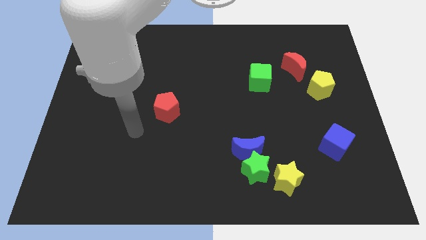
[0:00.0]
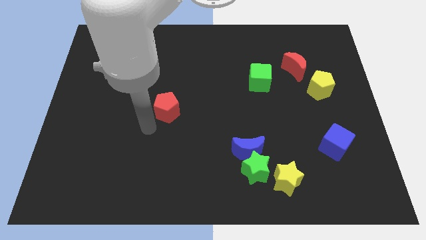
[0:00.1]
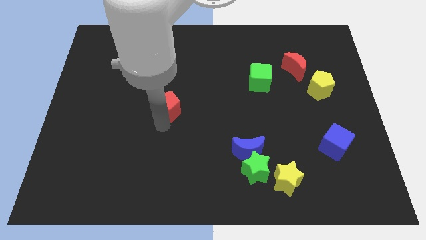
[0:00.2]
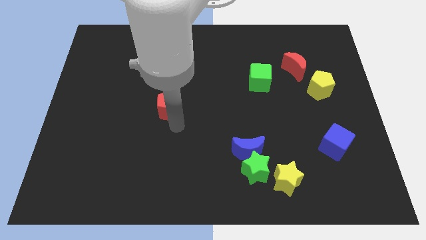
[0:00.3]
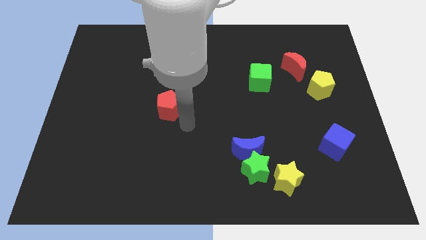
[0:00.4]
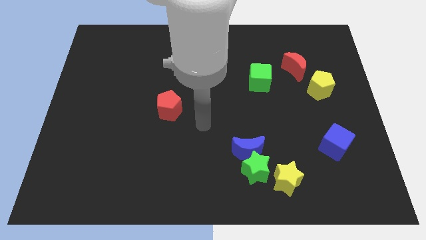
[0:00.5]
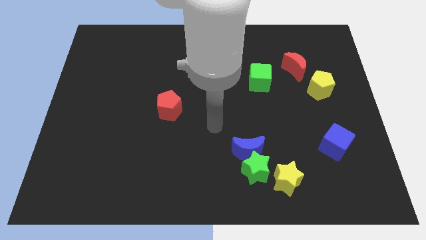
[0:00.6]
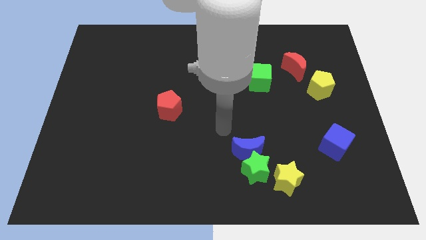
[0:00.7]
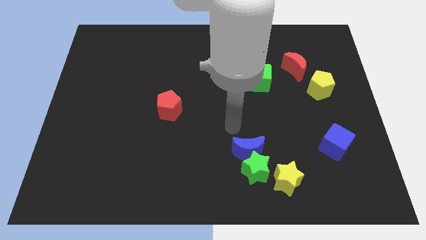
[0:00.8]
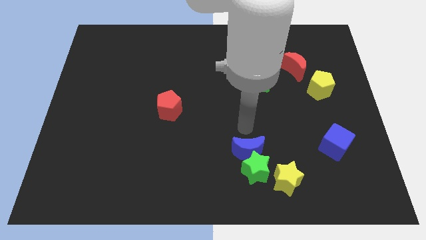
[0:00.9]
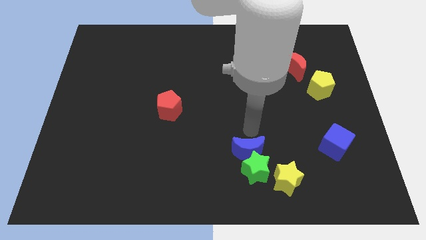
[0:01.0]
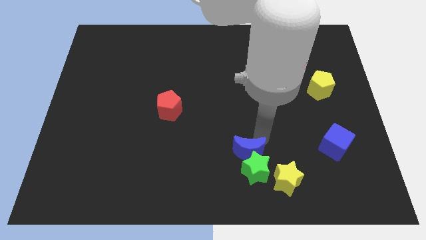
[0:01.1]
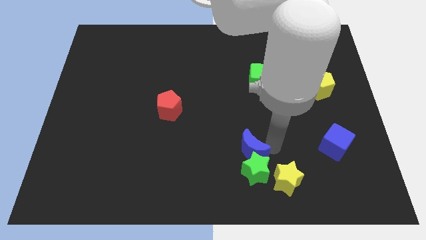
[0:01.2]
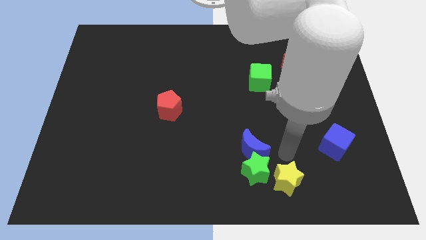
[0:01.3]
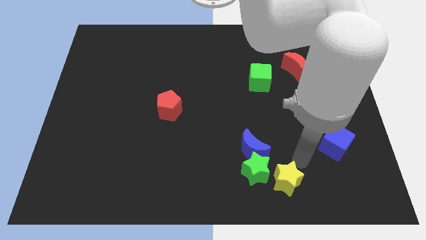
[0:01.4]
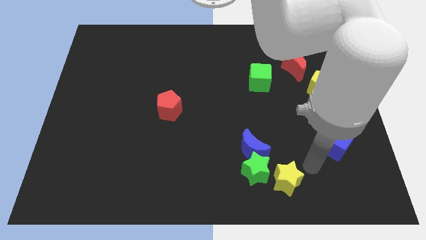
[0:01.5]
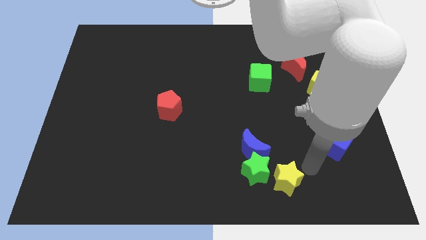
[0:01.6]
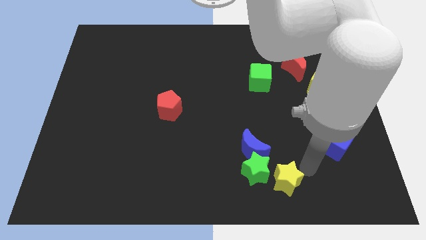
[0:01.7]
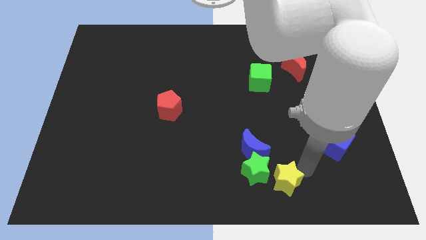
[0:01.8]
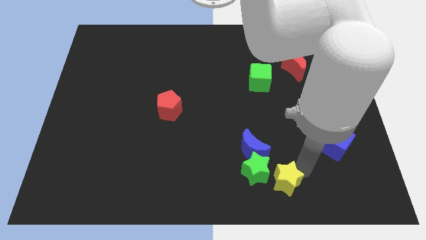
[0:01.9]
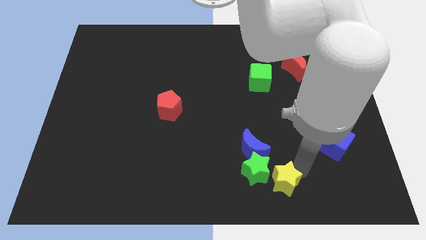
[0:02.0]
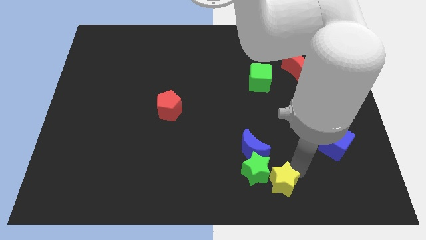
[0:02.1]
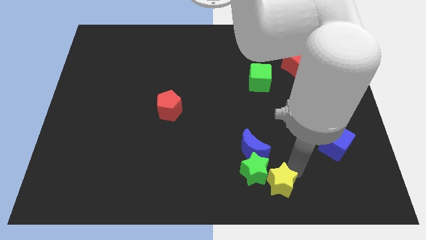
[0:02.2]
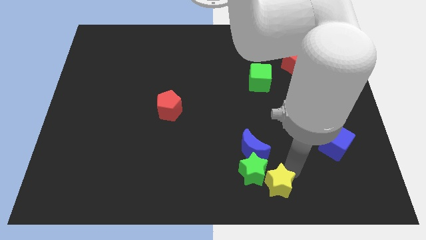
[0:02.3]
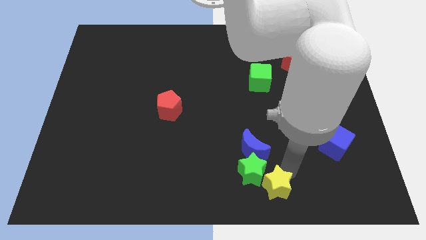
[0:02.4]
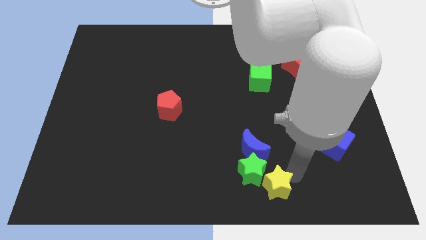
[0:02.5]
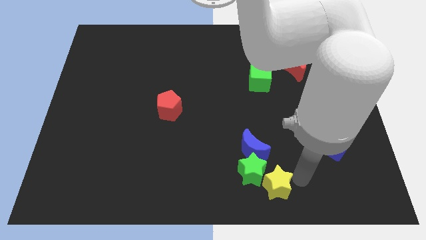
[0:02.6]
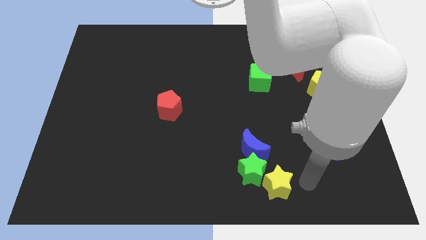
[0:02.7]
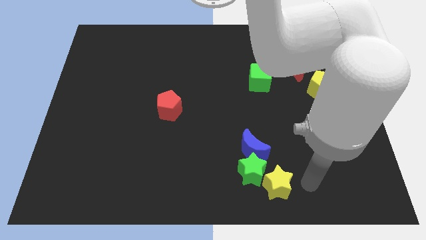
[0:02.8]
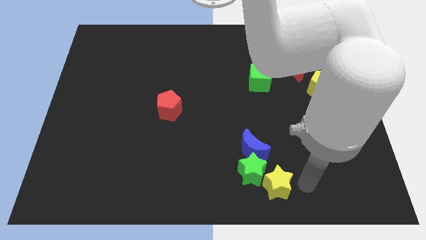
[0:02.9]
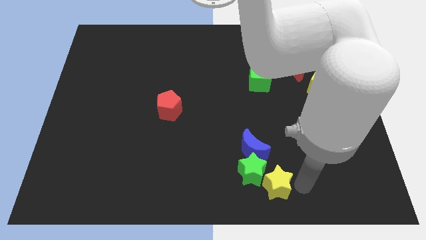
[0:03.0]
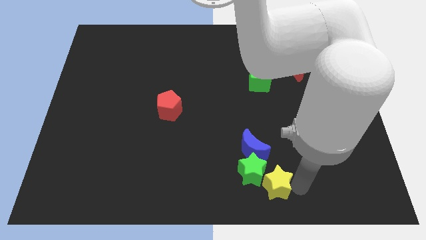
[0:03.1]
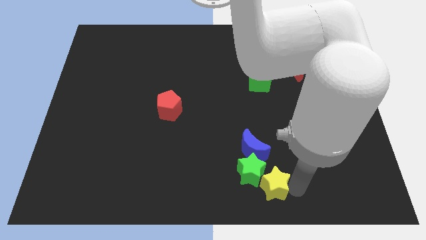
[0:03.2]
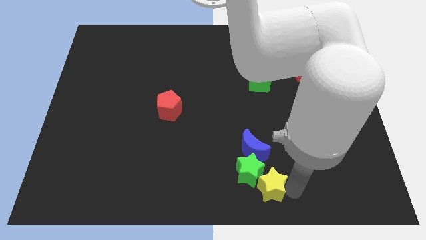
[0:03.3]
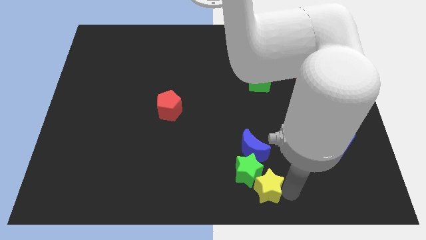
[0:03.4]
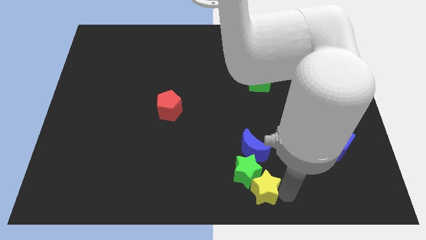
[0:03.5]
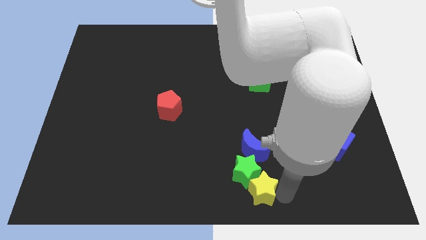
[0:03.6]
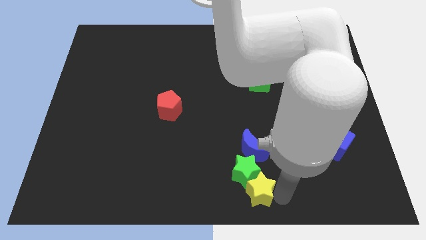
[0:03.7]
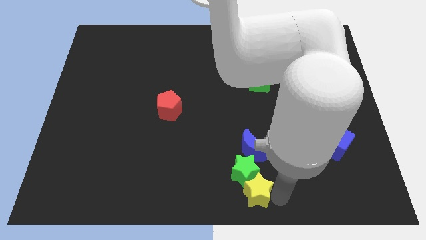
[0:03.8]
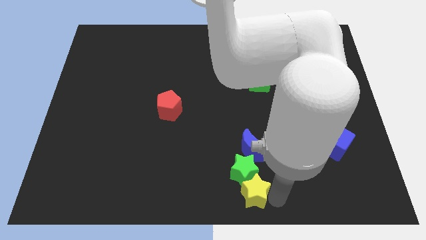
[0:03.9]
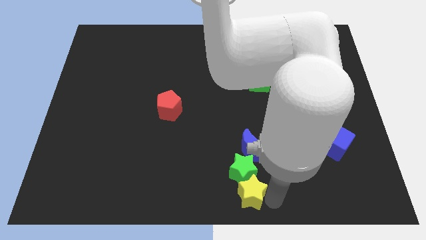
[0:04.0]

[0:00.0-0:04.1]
push the yellow star left a little bit

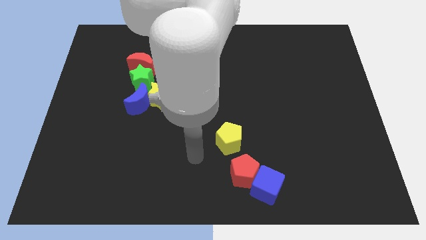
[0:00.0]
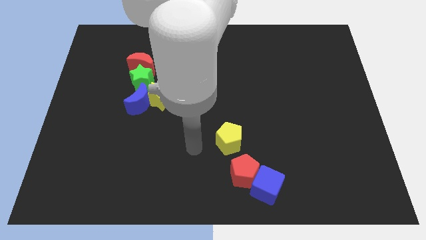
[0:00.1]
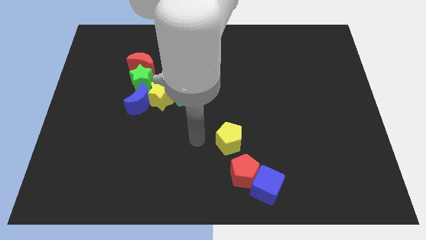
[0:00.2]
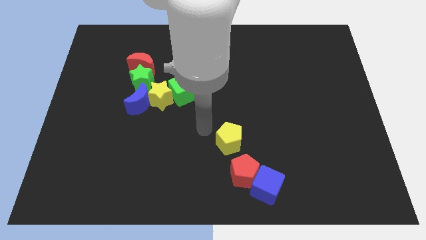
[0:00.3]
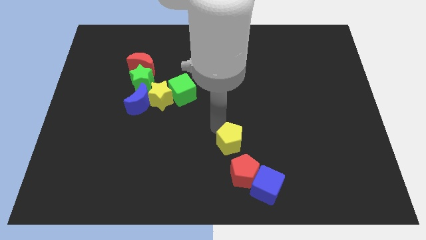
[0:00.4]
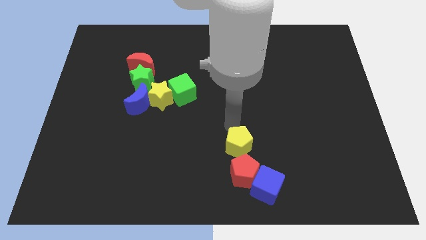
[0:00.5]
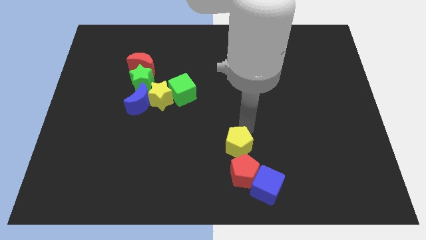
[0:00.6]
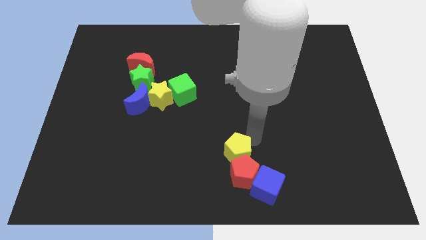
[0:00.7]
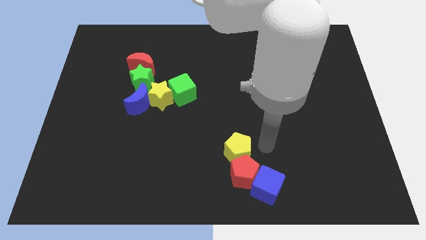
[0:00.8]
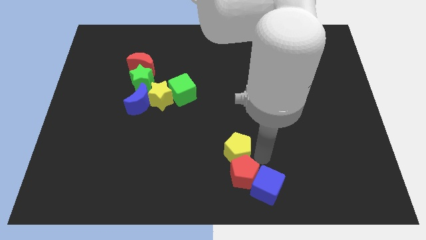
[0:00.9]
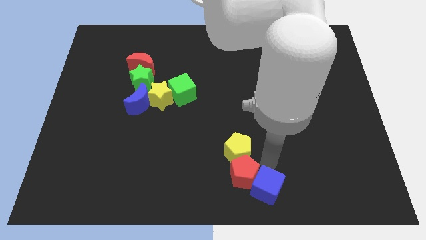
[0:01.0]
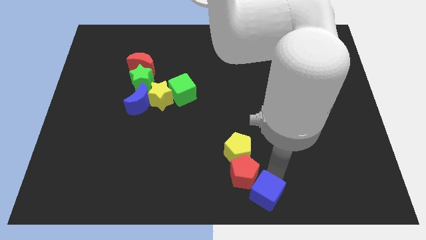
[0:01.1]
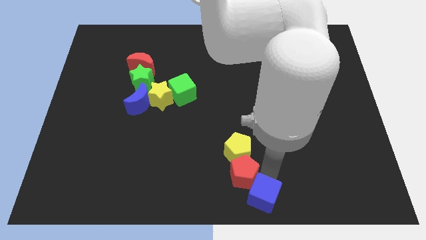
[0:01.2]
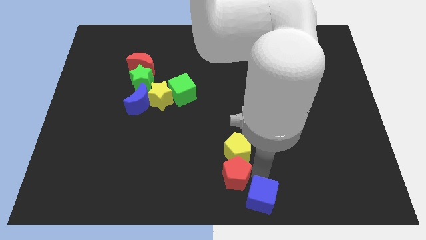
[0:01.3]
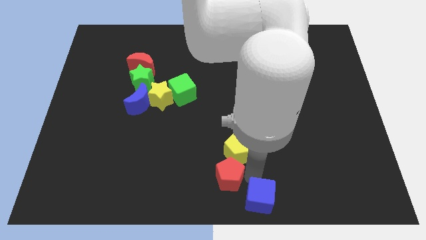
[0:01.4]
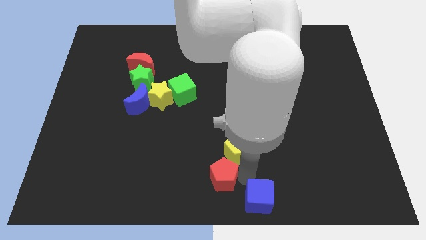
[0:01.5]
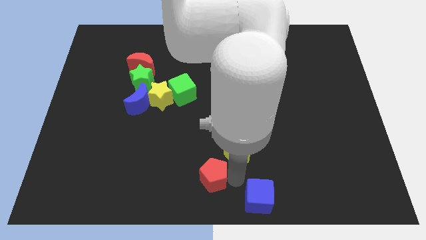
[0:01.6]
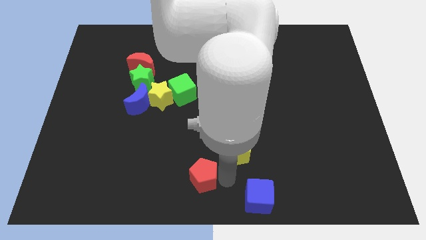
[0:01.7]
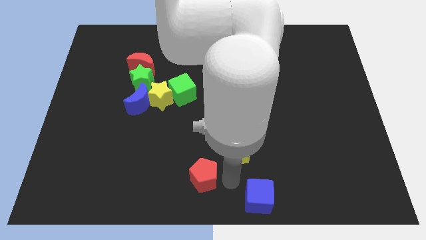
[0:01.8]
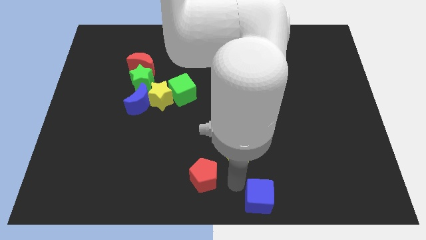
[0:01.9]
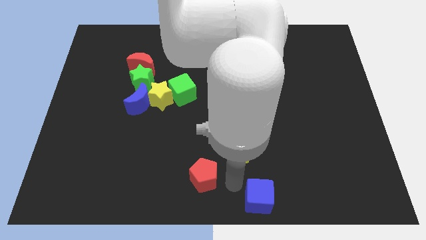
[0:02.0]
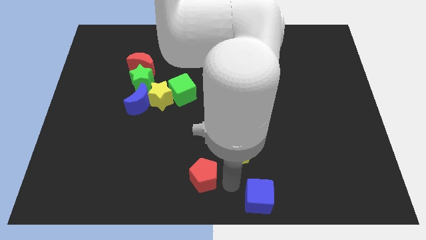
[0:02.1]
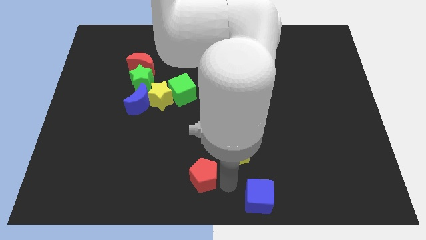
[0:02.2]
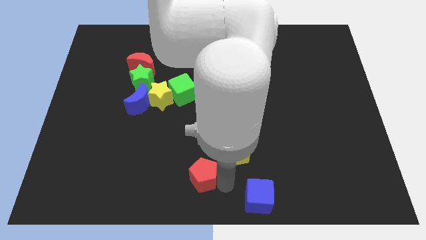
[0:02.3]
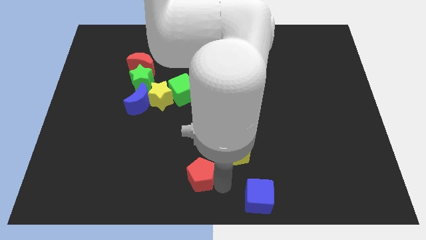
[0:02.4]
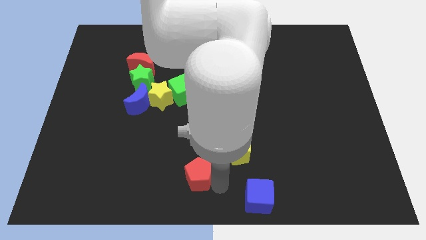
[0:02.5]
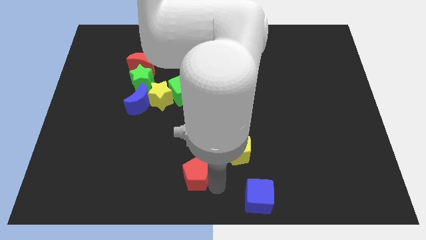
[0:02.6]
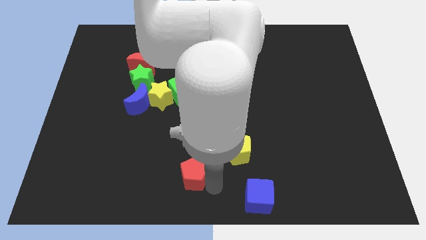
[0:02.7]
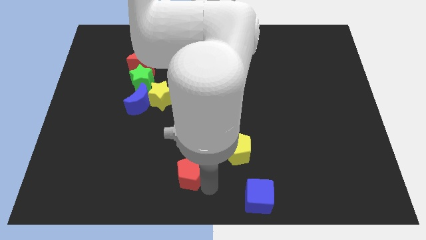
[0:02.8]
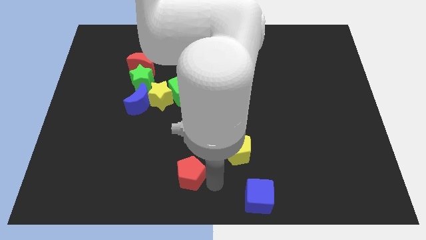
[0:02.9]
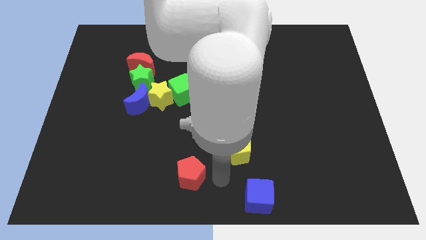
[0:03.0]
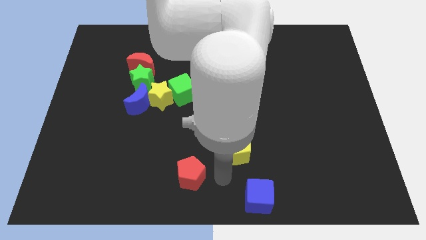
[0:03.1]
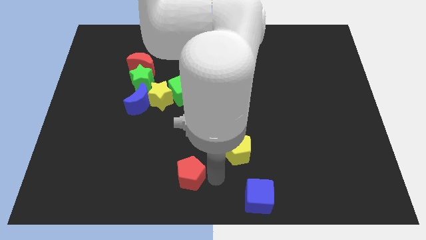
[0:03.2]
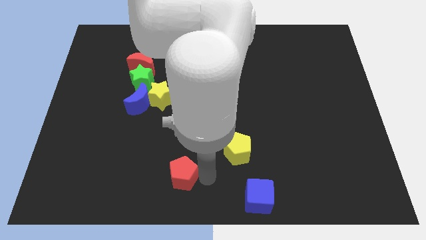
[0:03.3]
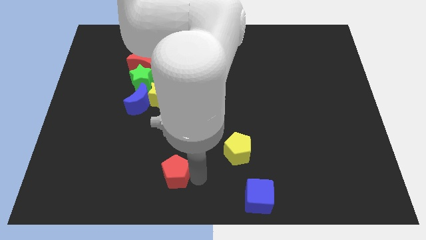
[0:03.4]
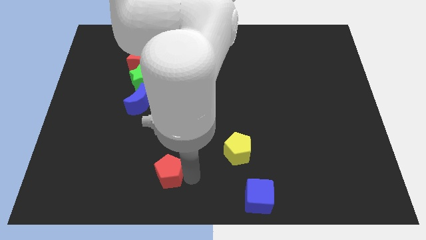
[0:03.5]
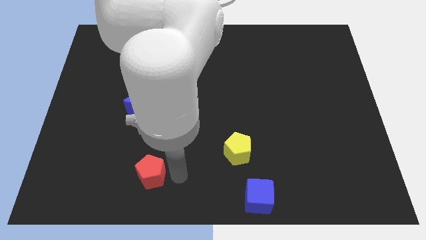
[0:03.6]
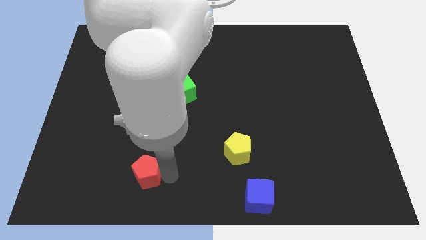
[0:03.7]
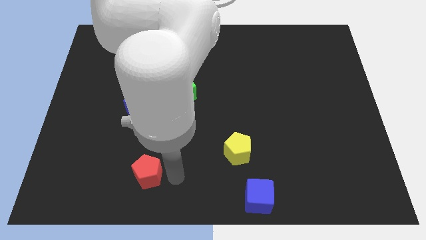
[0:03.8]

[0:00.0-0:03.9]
push the red pentagon left
